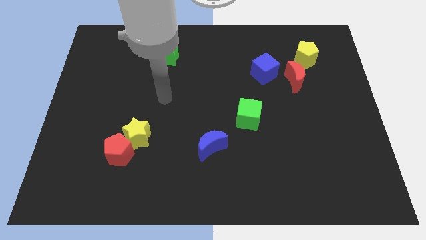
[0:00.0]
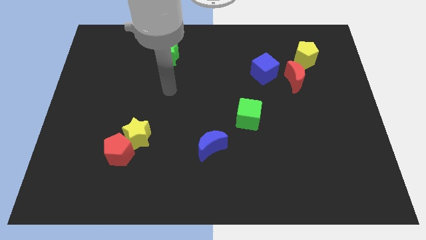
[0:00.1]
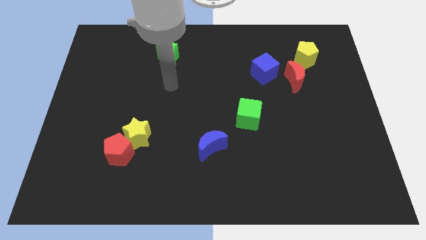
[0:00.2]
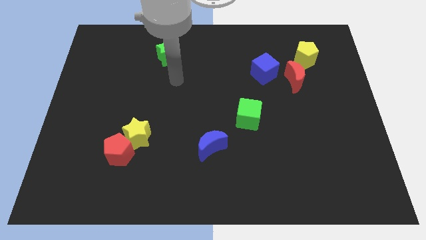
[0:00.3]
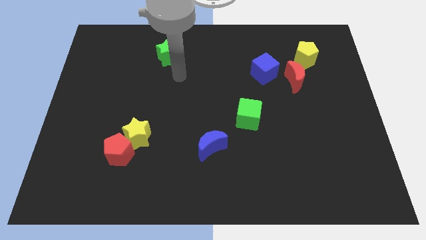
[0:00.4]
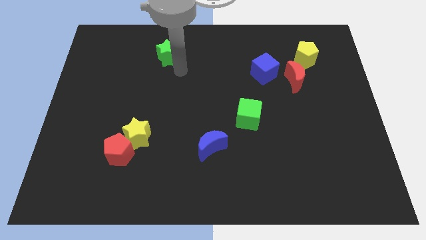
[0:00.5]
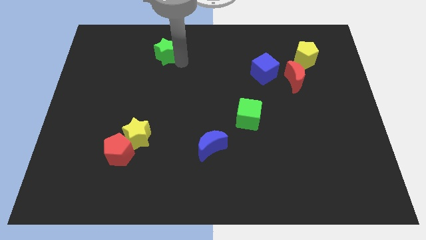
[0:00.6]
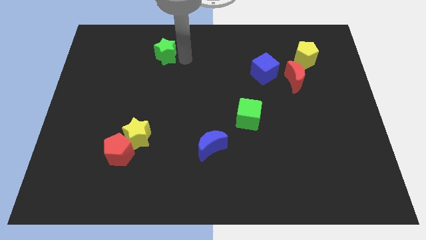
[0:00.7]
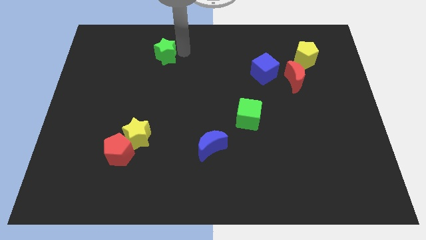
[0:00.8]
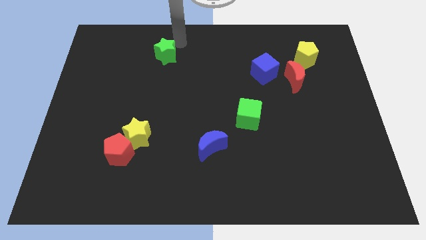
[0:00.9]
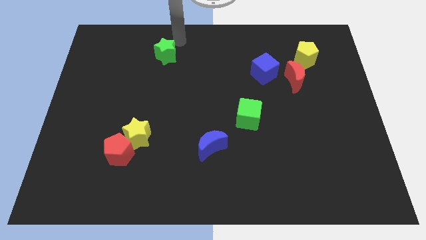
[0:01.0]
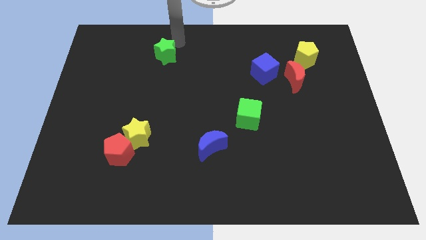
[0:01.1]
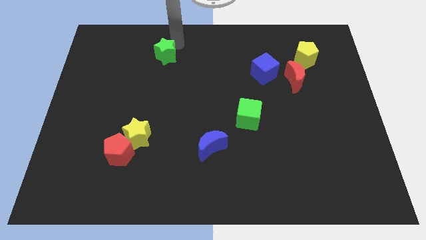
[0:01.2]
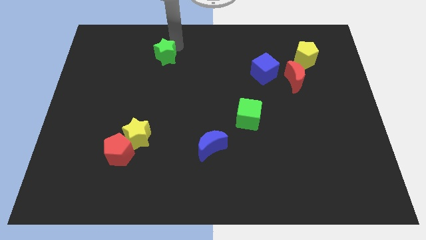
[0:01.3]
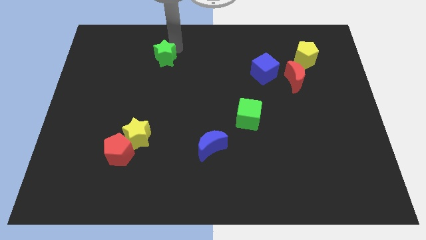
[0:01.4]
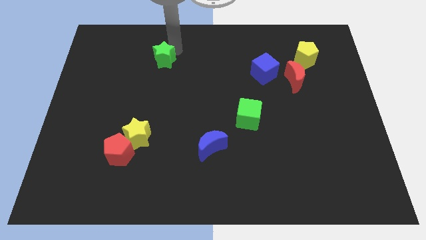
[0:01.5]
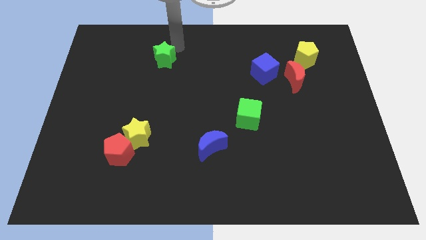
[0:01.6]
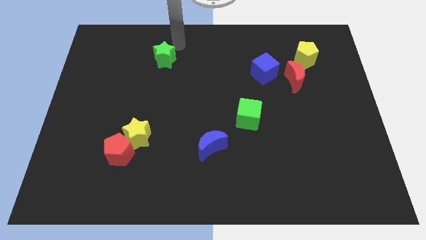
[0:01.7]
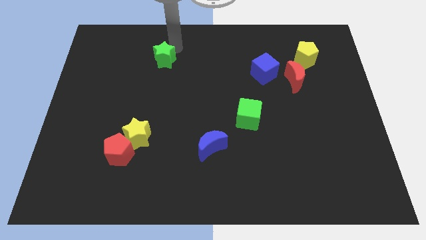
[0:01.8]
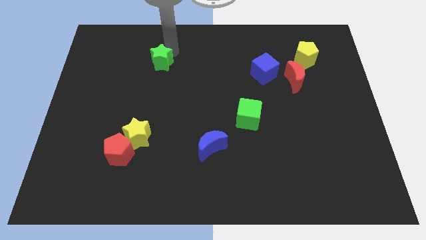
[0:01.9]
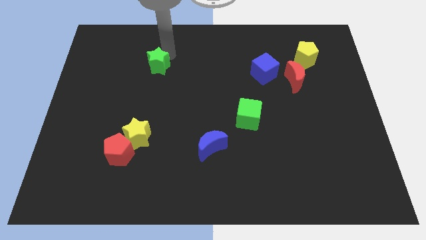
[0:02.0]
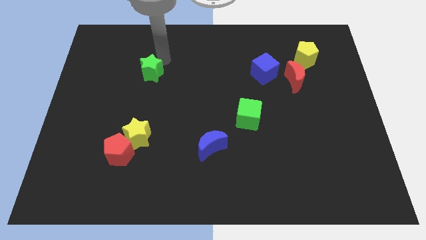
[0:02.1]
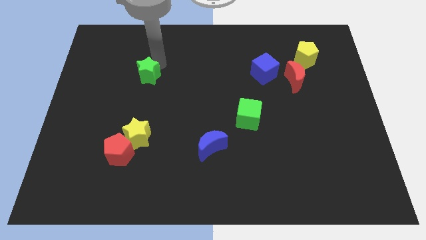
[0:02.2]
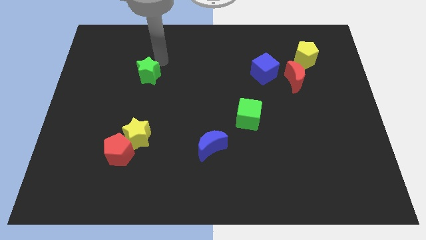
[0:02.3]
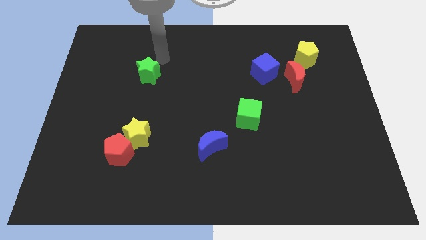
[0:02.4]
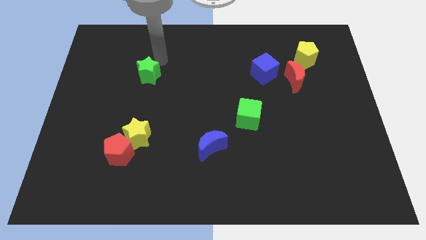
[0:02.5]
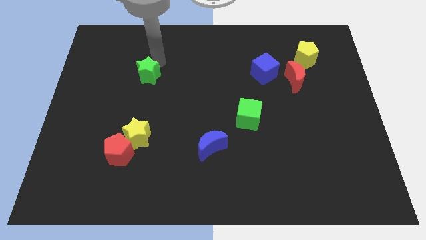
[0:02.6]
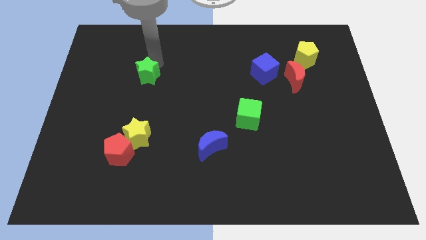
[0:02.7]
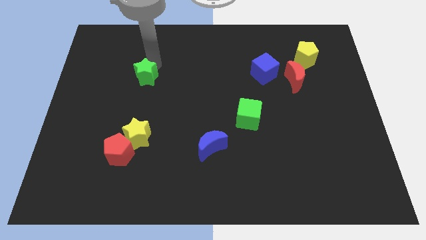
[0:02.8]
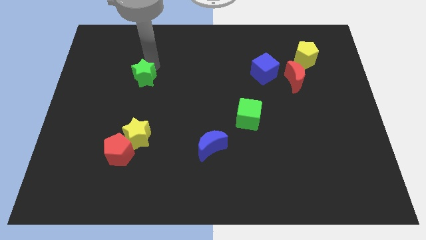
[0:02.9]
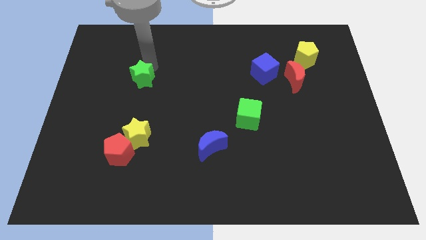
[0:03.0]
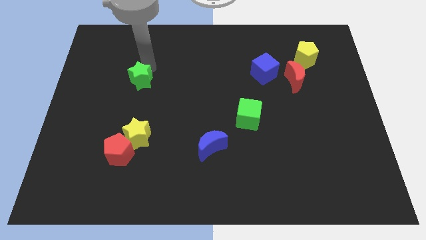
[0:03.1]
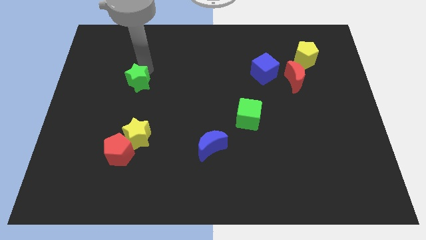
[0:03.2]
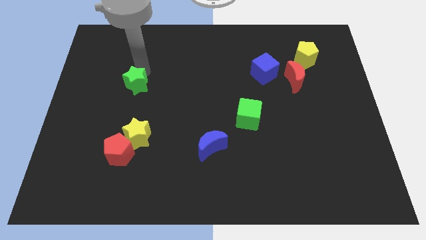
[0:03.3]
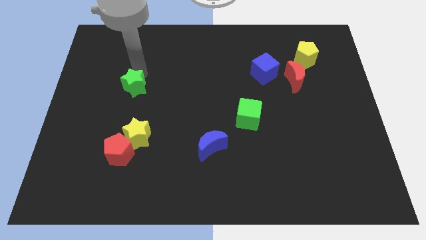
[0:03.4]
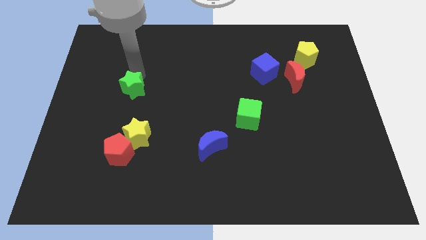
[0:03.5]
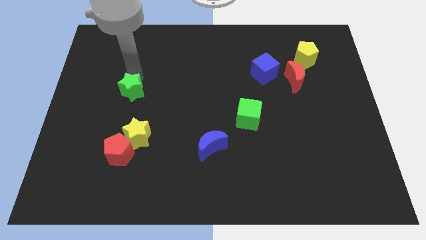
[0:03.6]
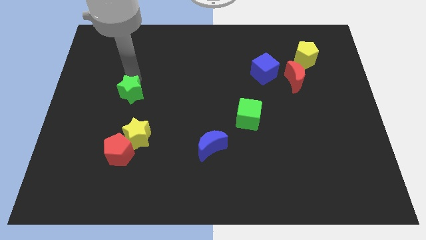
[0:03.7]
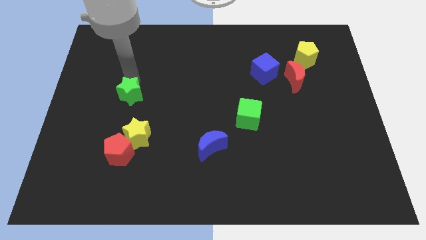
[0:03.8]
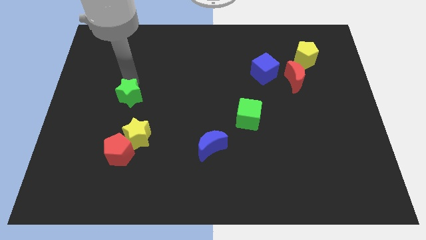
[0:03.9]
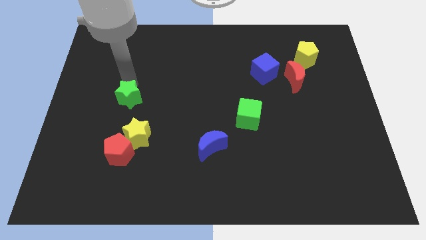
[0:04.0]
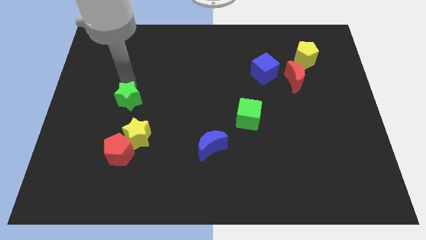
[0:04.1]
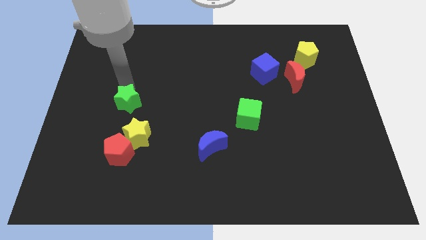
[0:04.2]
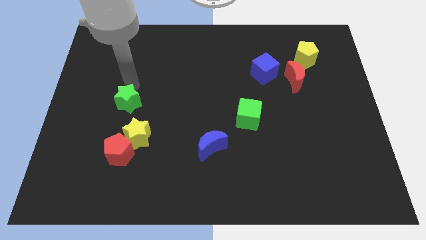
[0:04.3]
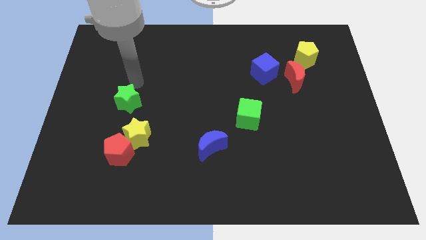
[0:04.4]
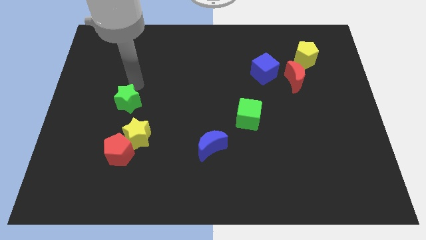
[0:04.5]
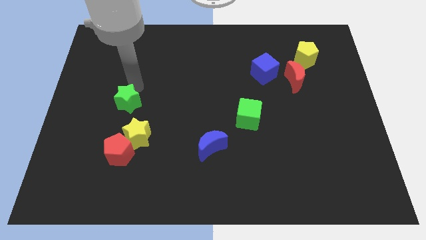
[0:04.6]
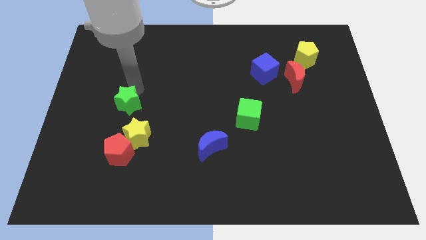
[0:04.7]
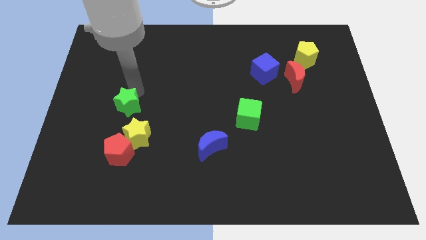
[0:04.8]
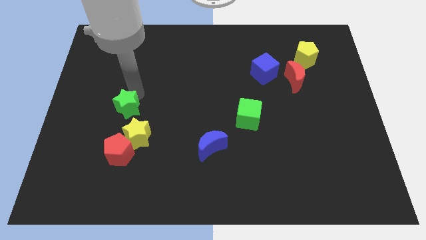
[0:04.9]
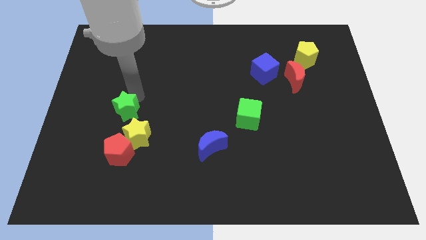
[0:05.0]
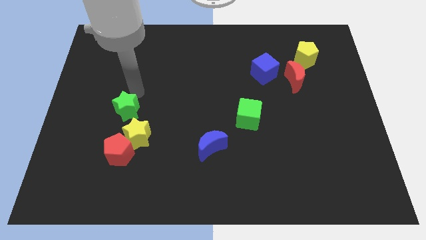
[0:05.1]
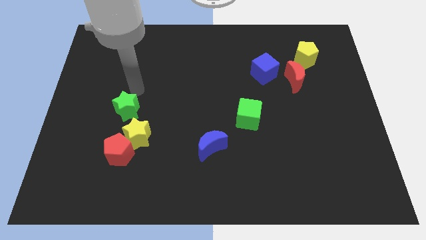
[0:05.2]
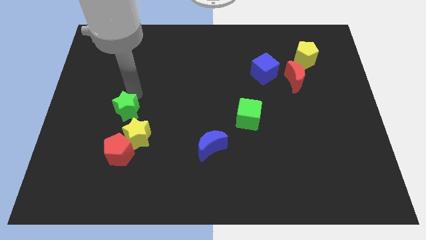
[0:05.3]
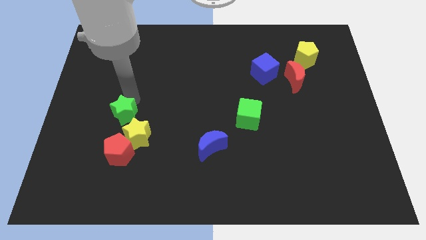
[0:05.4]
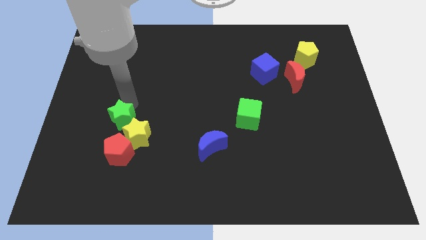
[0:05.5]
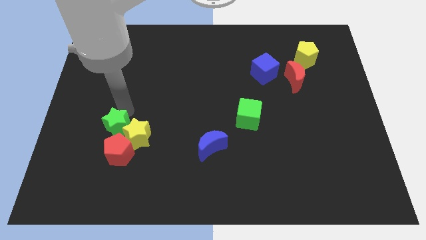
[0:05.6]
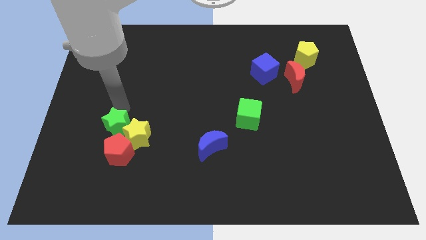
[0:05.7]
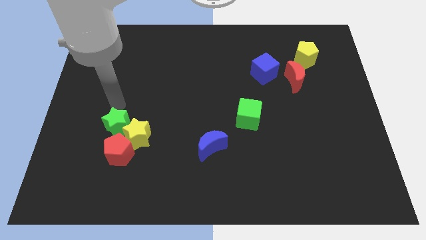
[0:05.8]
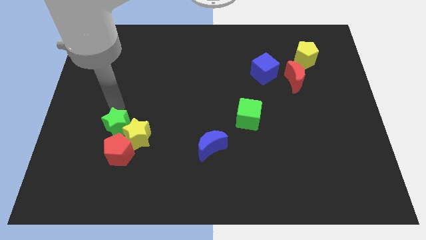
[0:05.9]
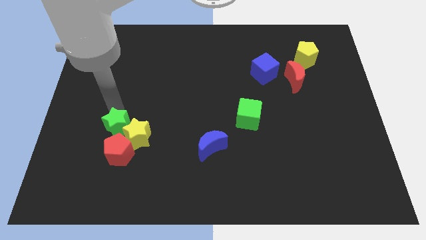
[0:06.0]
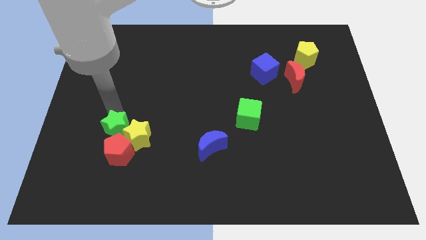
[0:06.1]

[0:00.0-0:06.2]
slide the green star next to the red pentagon

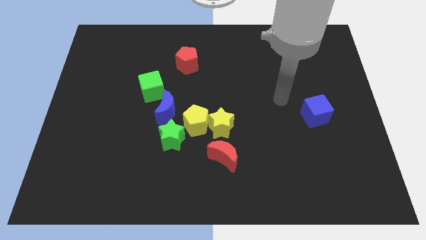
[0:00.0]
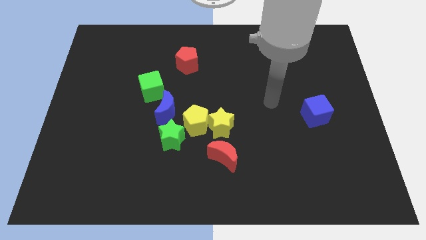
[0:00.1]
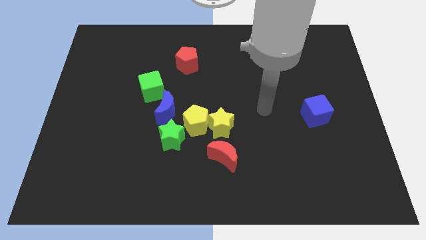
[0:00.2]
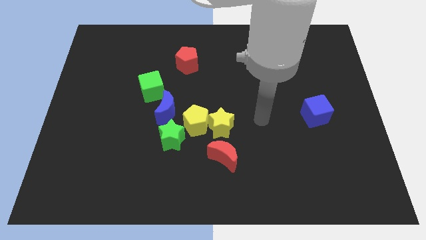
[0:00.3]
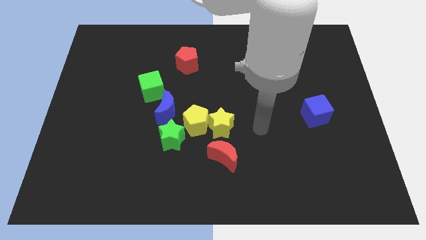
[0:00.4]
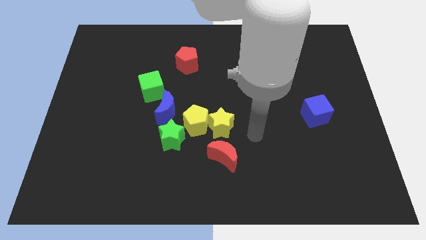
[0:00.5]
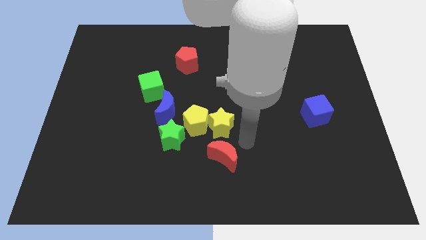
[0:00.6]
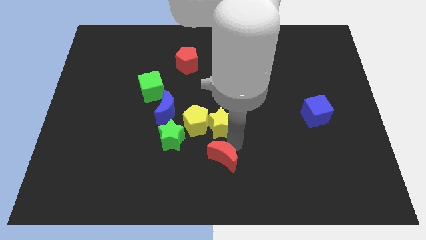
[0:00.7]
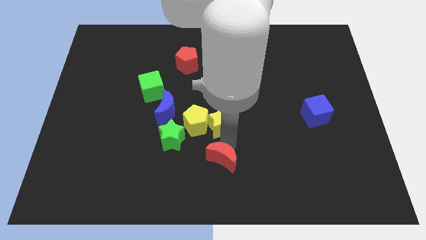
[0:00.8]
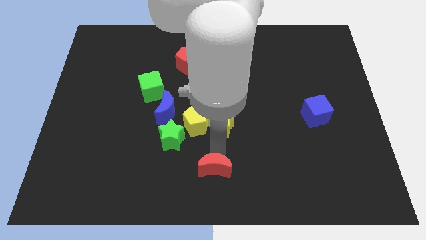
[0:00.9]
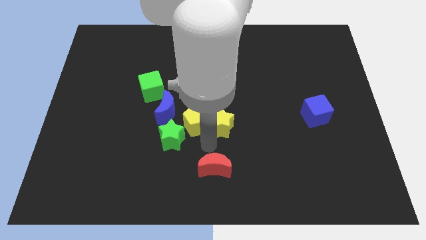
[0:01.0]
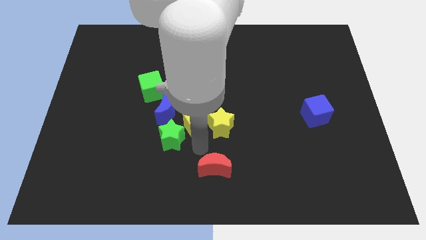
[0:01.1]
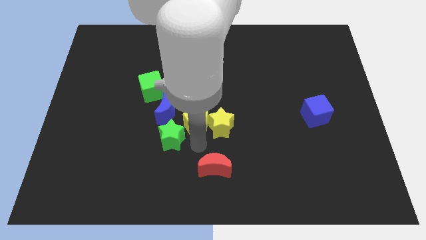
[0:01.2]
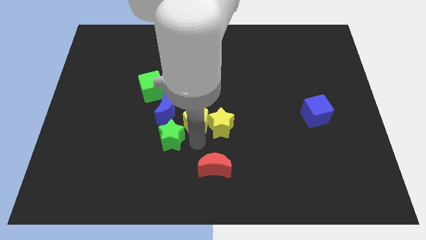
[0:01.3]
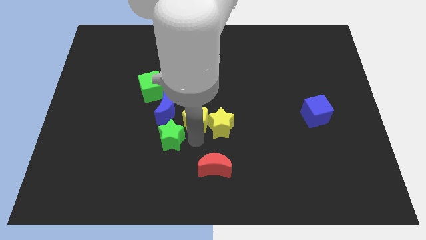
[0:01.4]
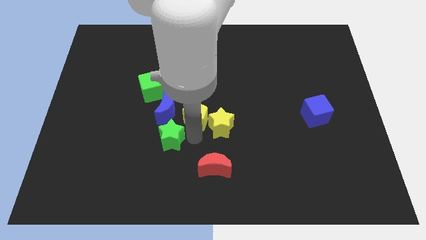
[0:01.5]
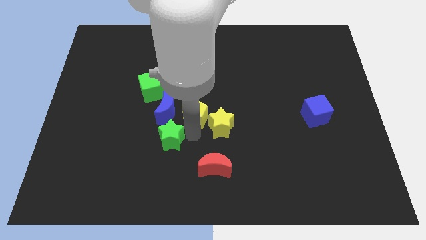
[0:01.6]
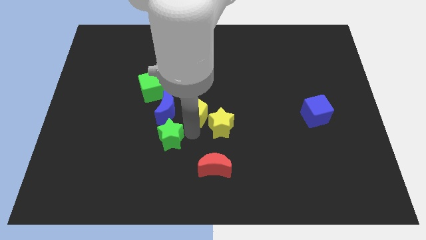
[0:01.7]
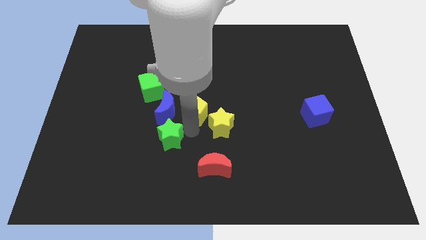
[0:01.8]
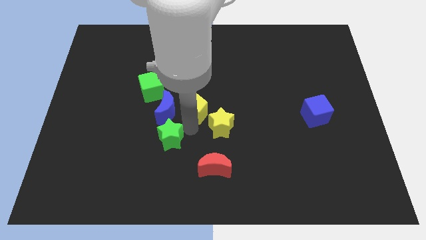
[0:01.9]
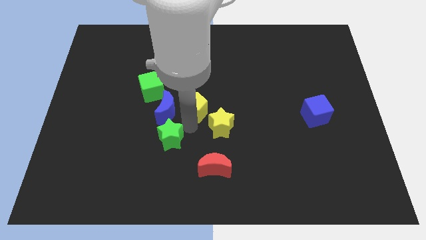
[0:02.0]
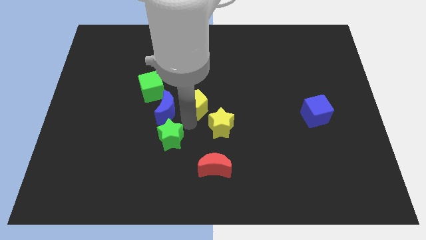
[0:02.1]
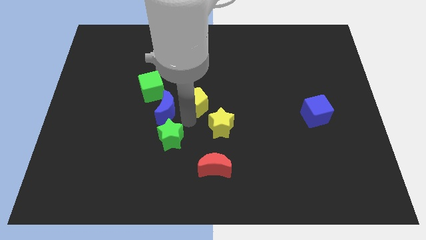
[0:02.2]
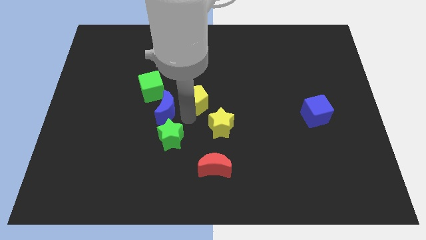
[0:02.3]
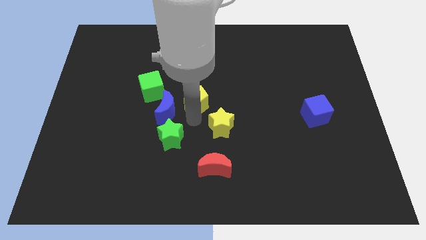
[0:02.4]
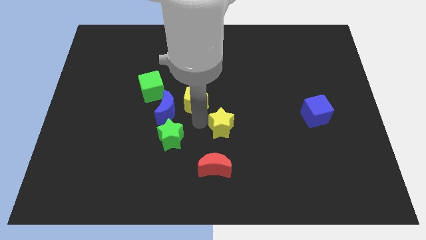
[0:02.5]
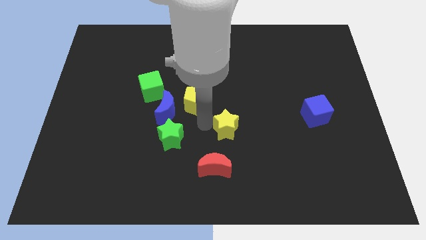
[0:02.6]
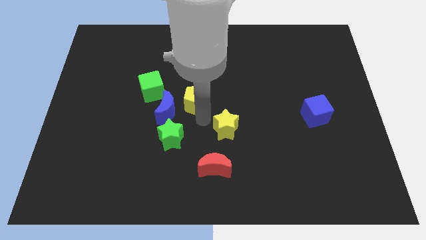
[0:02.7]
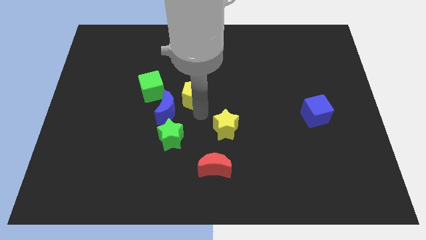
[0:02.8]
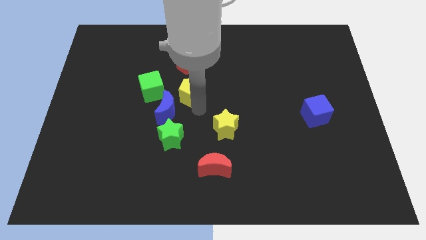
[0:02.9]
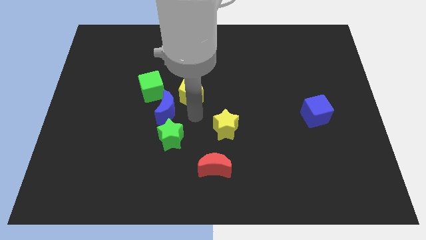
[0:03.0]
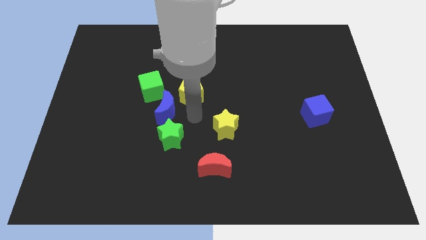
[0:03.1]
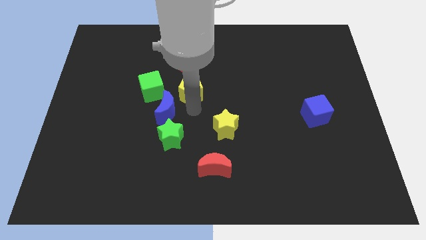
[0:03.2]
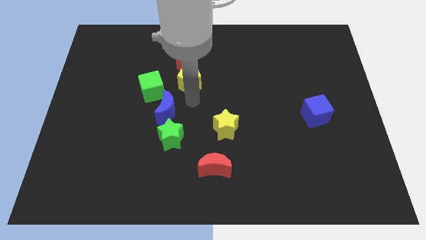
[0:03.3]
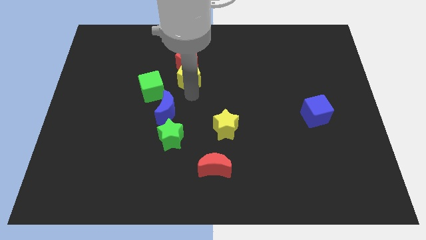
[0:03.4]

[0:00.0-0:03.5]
put the yellow pentagon next to the red pentagon
